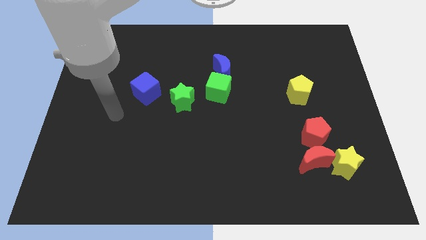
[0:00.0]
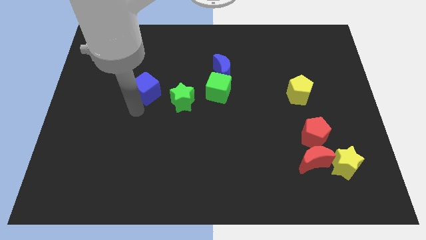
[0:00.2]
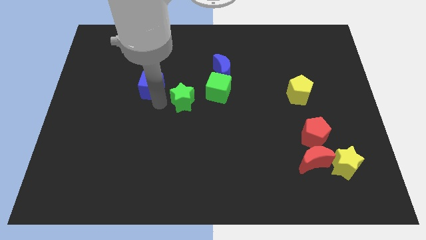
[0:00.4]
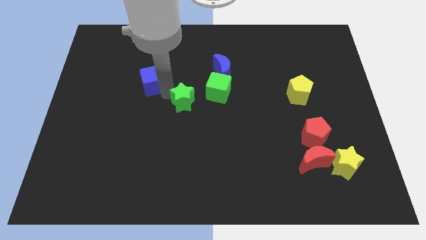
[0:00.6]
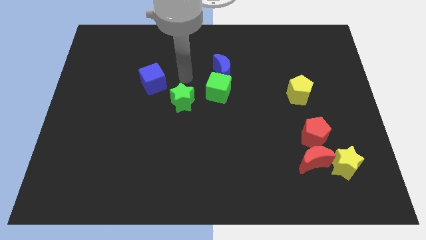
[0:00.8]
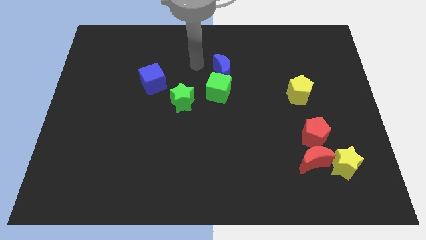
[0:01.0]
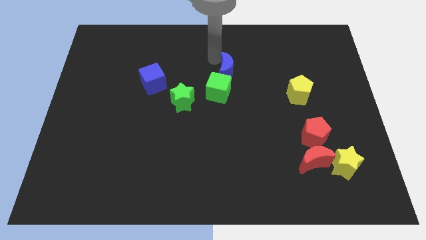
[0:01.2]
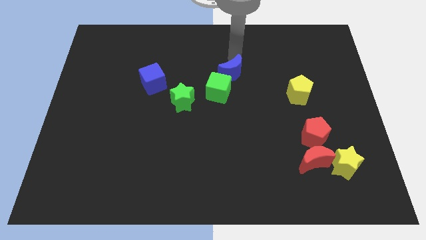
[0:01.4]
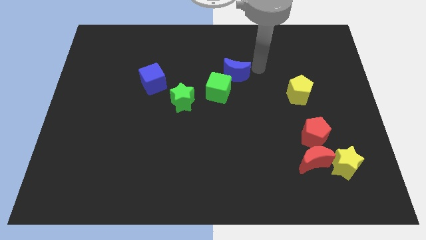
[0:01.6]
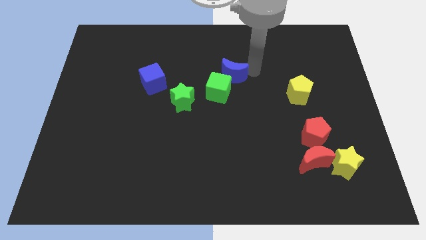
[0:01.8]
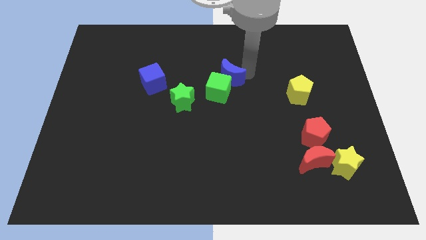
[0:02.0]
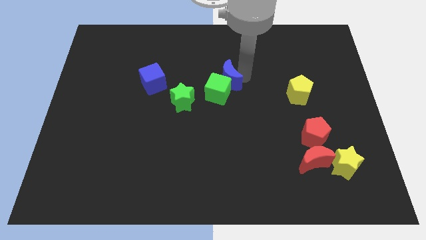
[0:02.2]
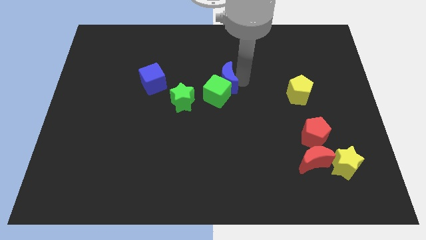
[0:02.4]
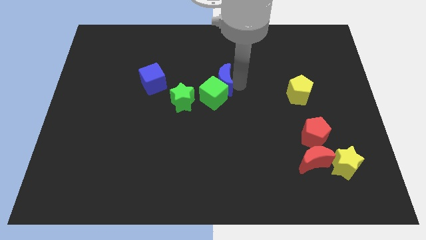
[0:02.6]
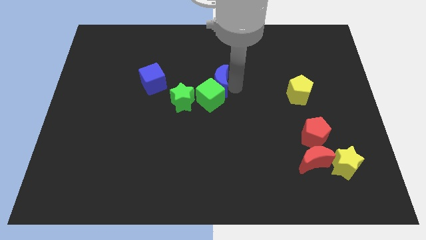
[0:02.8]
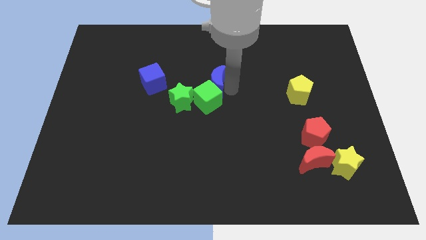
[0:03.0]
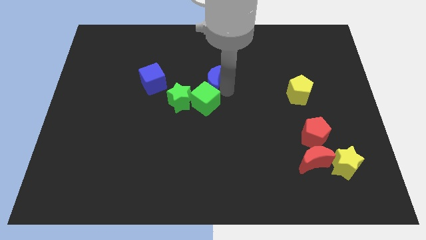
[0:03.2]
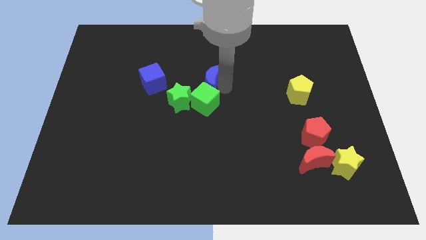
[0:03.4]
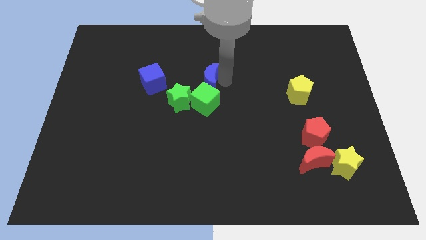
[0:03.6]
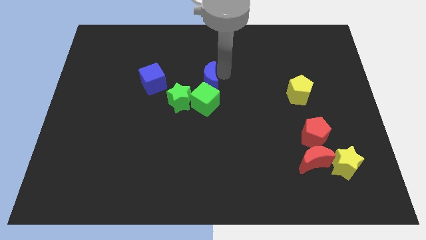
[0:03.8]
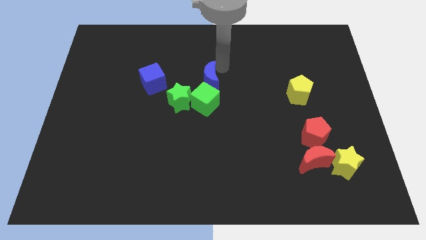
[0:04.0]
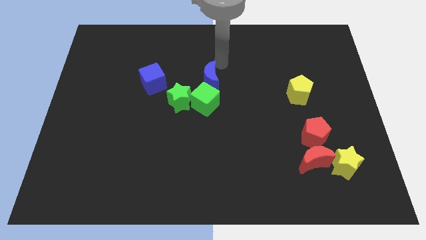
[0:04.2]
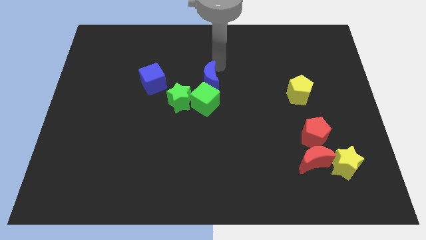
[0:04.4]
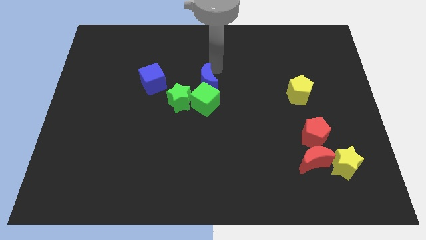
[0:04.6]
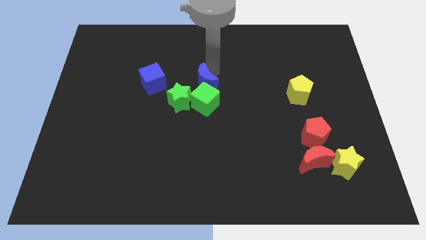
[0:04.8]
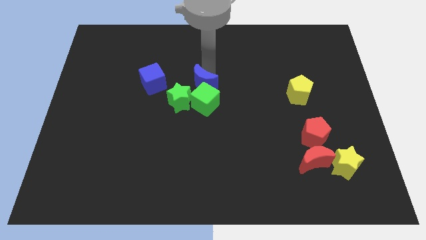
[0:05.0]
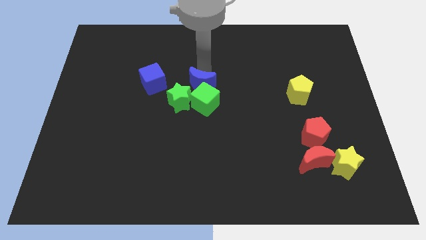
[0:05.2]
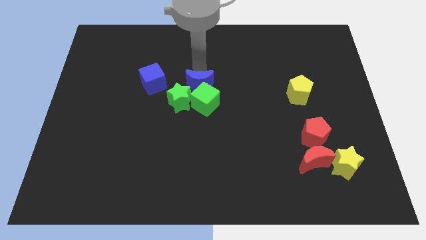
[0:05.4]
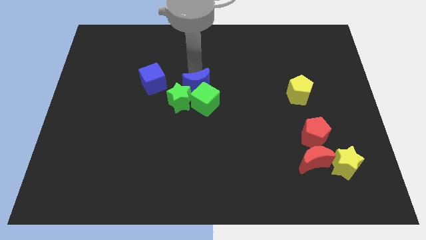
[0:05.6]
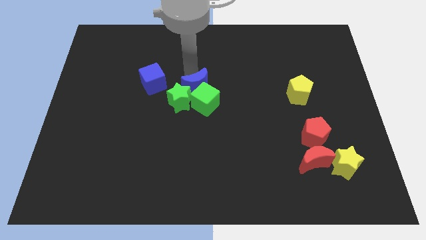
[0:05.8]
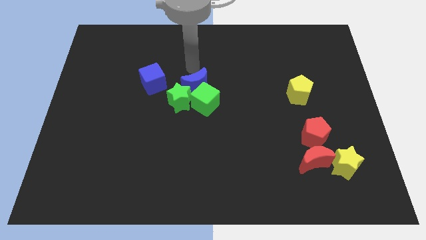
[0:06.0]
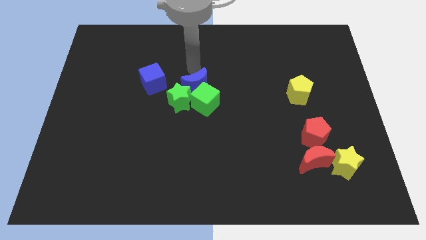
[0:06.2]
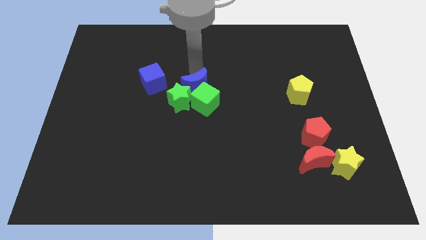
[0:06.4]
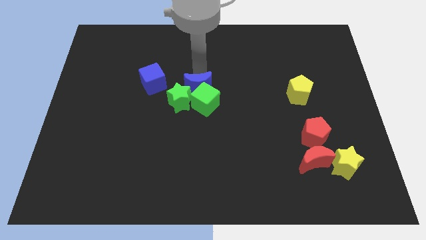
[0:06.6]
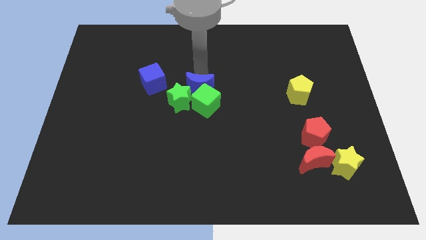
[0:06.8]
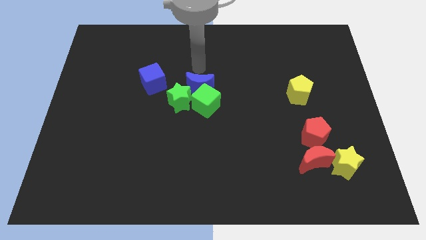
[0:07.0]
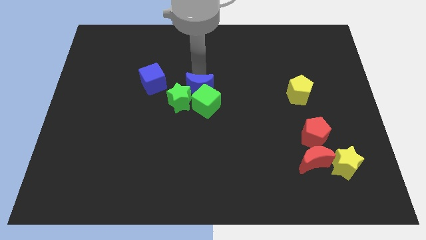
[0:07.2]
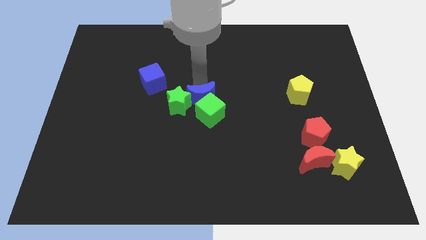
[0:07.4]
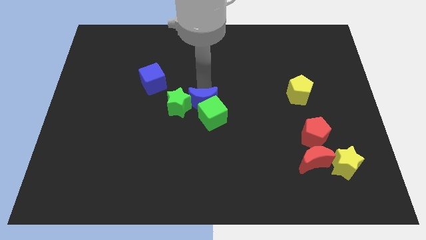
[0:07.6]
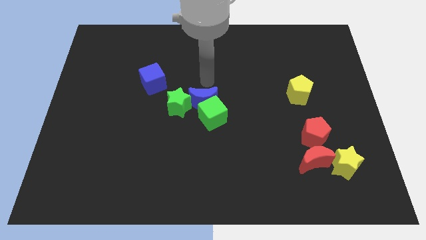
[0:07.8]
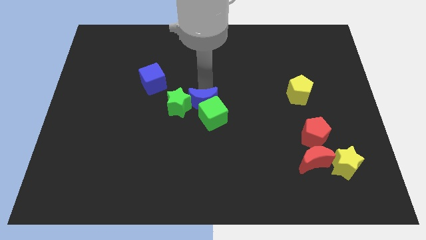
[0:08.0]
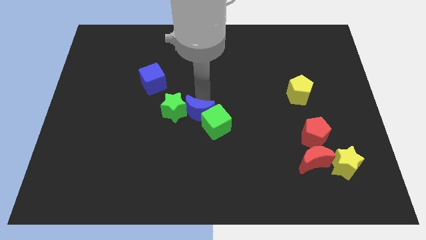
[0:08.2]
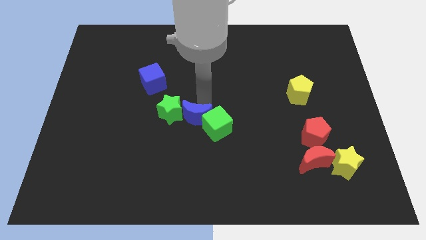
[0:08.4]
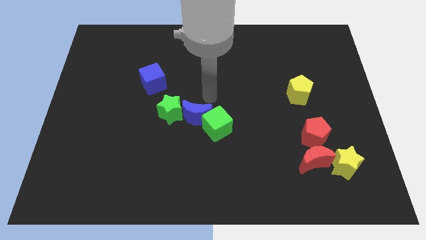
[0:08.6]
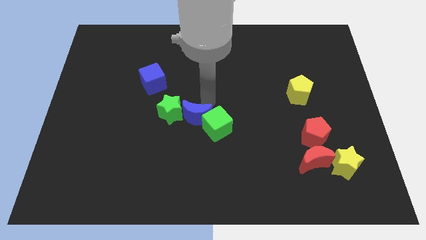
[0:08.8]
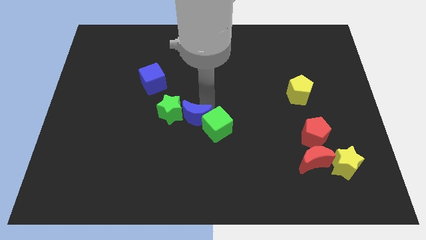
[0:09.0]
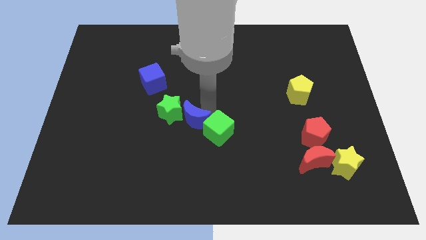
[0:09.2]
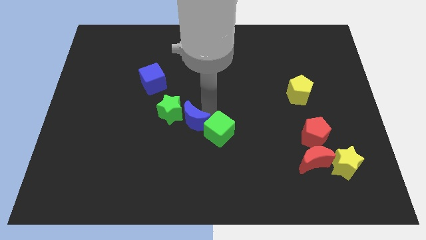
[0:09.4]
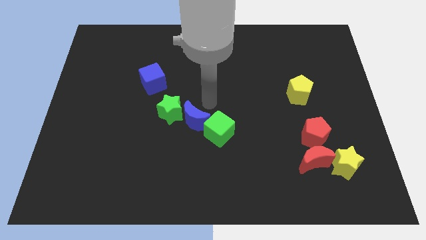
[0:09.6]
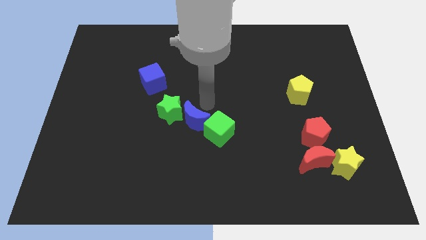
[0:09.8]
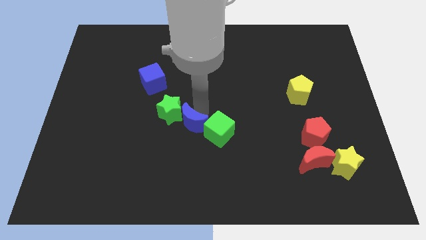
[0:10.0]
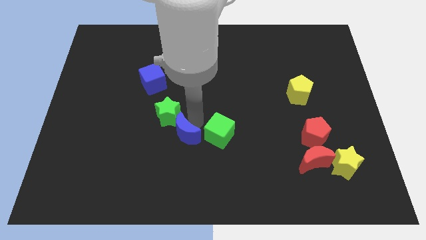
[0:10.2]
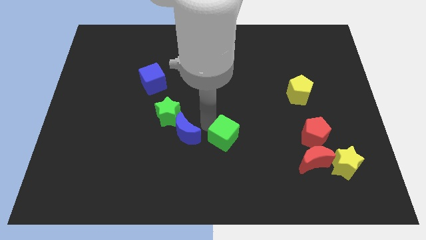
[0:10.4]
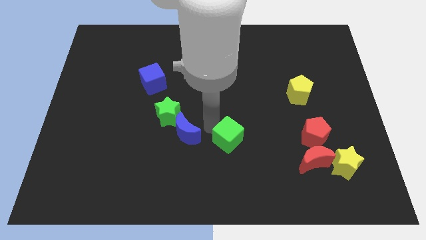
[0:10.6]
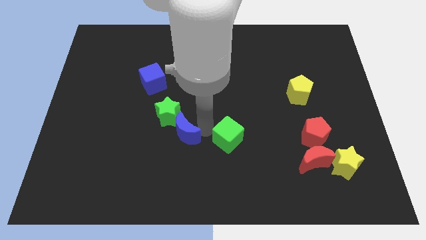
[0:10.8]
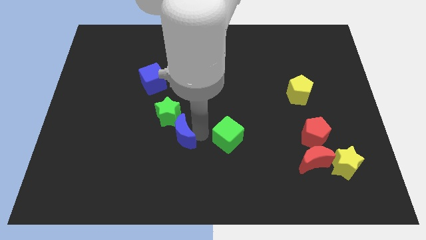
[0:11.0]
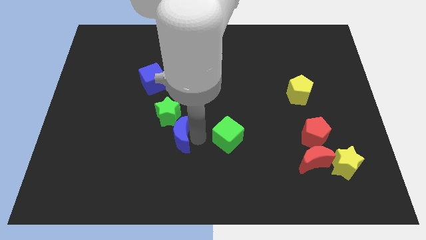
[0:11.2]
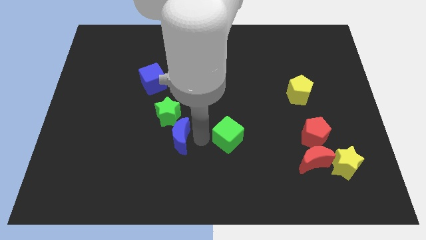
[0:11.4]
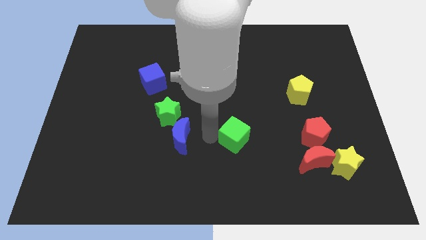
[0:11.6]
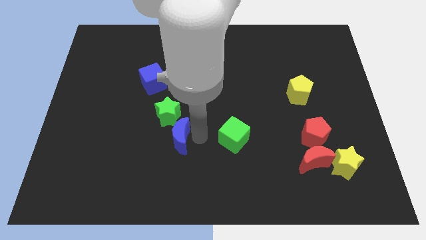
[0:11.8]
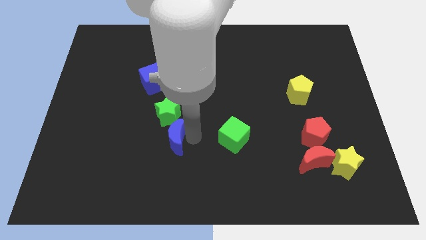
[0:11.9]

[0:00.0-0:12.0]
move the blue moon diagonally down and left

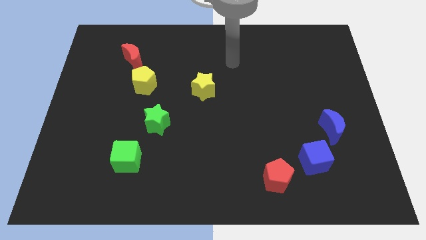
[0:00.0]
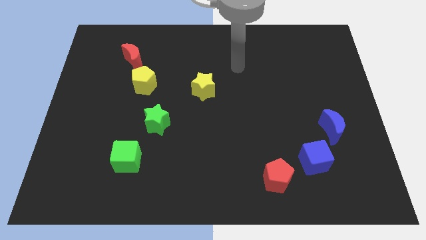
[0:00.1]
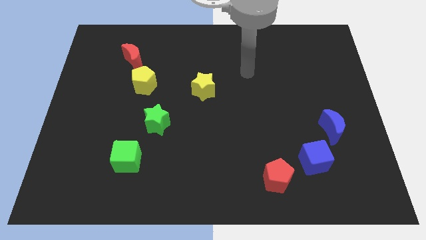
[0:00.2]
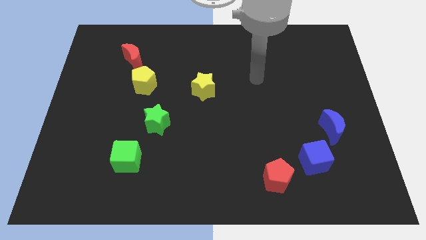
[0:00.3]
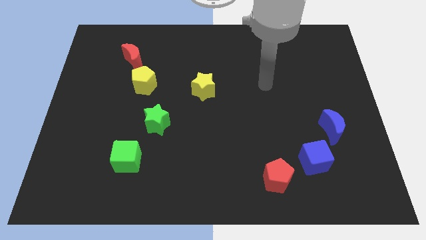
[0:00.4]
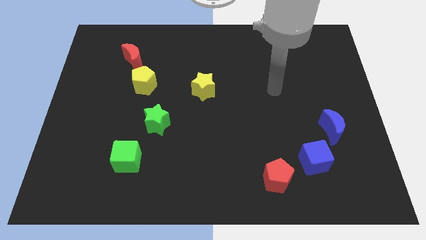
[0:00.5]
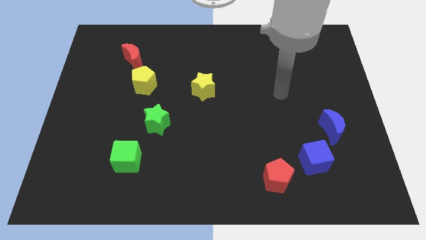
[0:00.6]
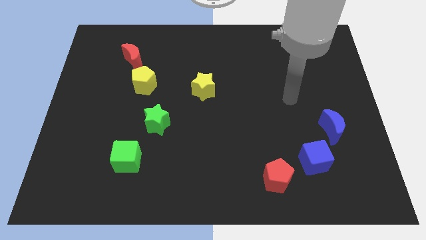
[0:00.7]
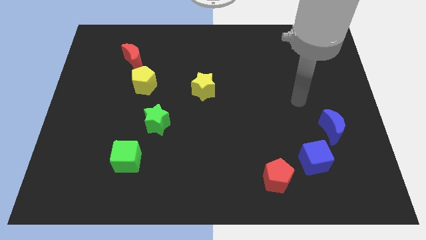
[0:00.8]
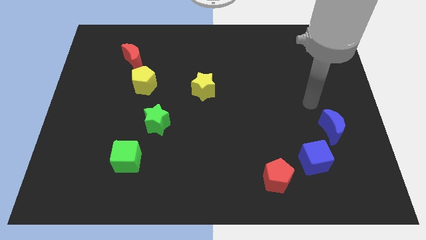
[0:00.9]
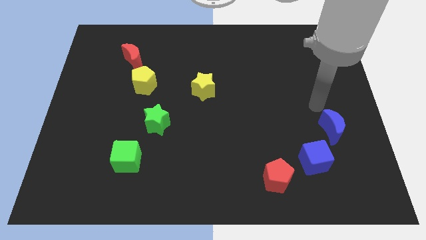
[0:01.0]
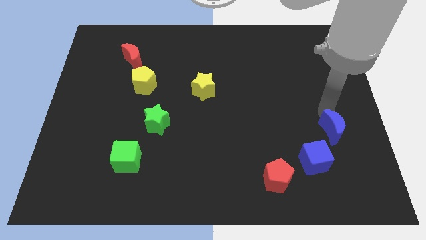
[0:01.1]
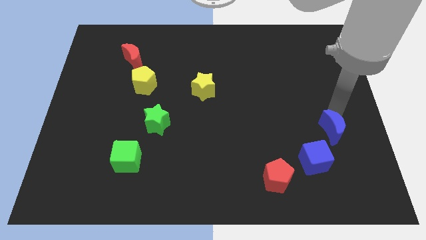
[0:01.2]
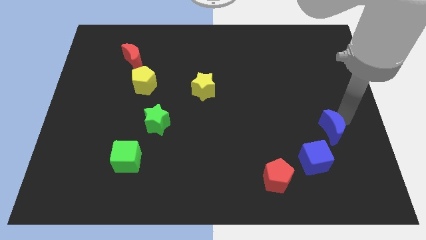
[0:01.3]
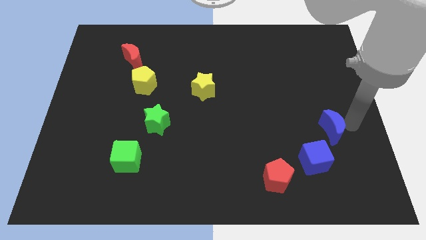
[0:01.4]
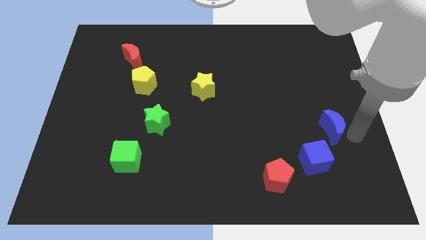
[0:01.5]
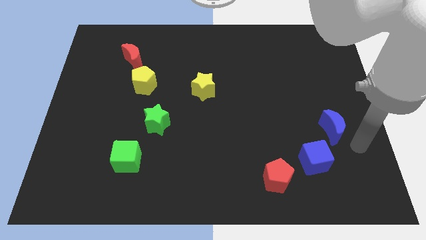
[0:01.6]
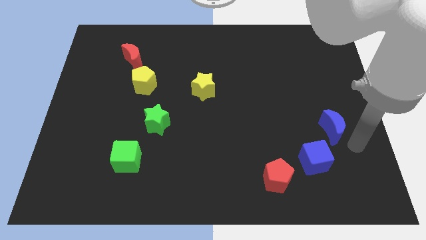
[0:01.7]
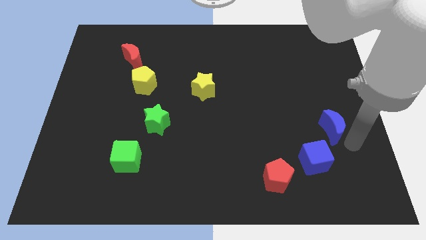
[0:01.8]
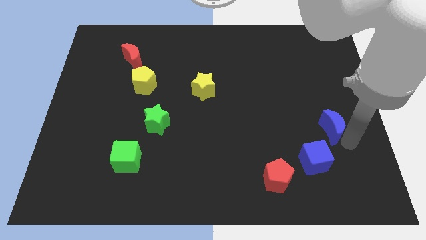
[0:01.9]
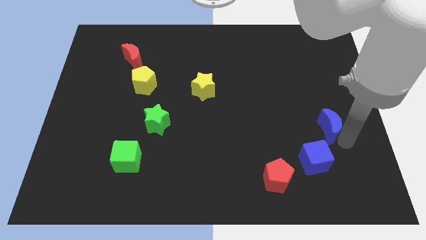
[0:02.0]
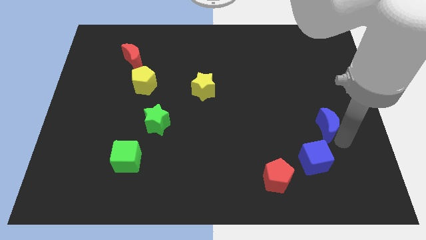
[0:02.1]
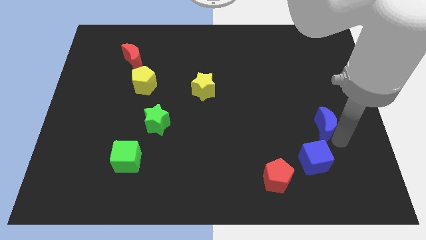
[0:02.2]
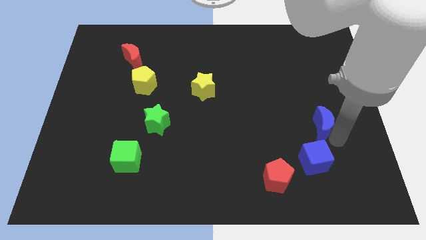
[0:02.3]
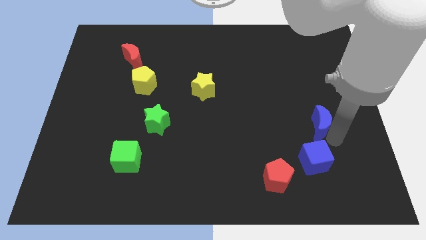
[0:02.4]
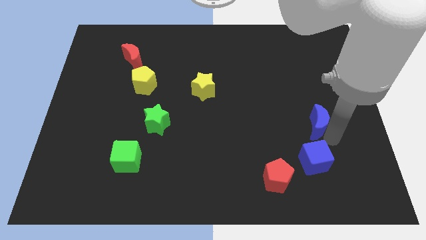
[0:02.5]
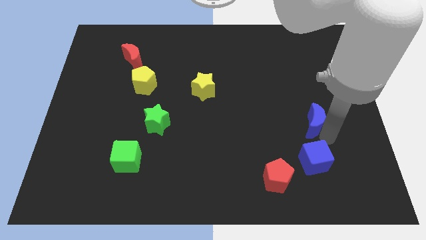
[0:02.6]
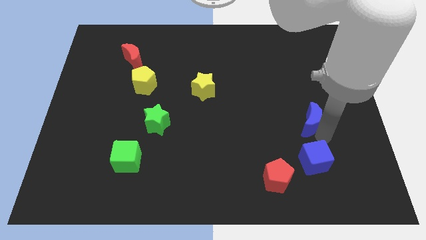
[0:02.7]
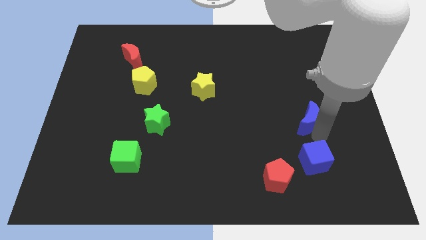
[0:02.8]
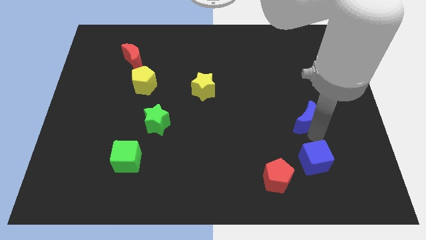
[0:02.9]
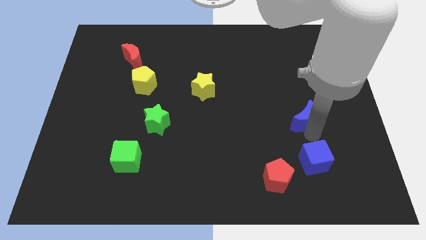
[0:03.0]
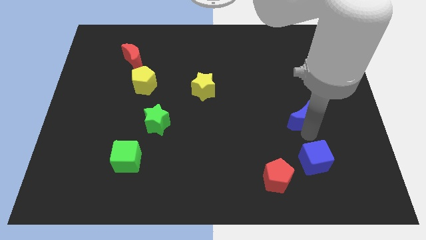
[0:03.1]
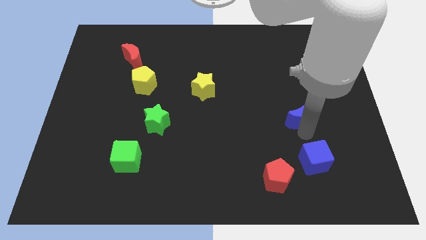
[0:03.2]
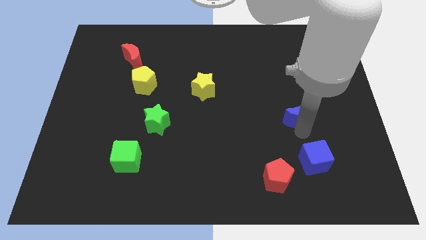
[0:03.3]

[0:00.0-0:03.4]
slide the blue moon a little bit upwards and then to the left
